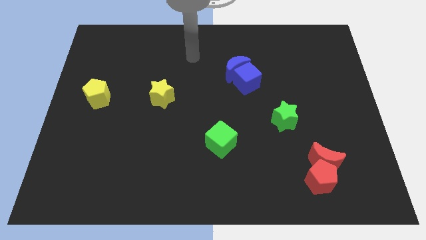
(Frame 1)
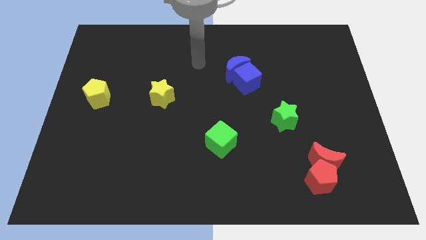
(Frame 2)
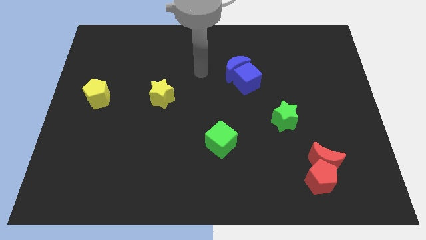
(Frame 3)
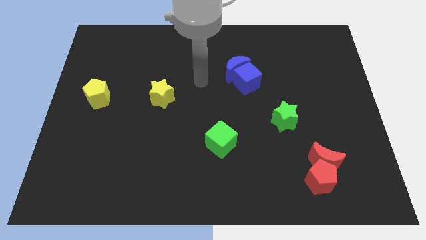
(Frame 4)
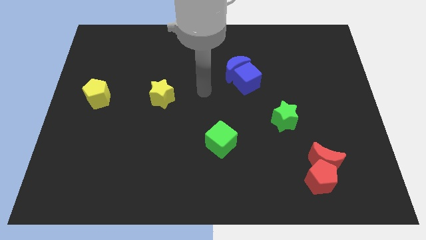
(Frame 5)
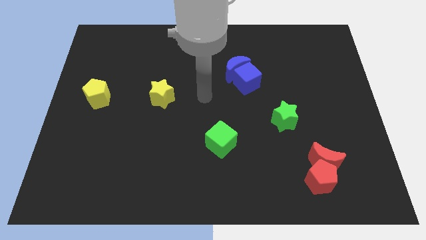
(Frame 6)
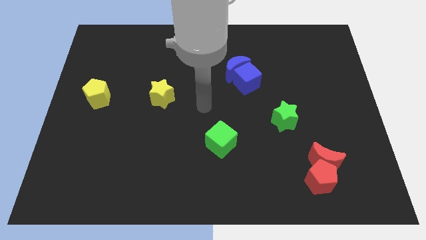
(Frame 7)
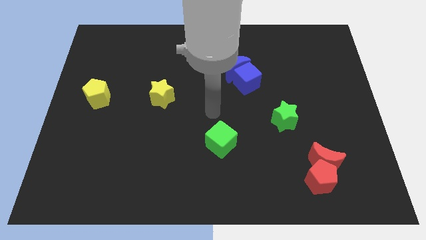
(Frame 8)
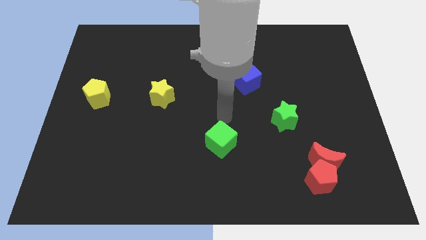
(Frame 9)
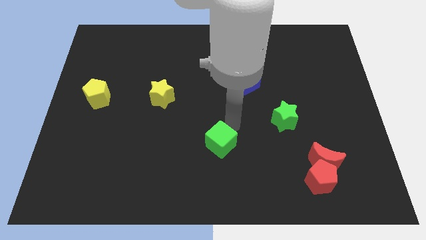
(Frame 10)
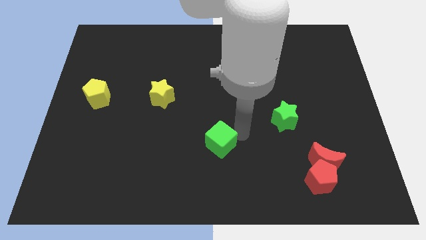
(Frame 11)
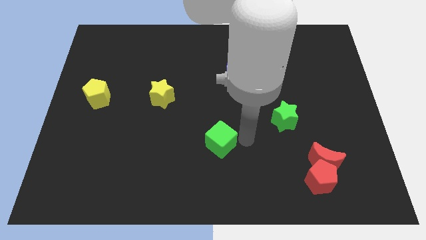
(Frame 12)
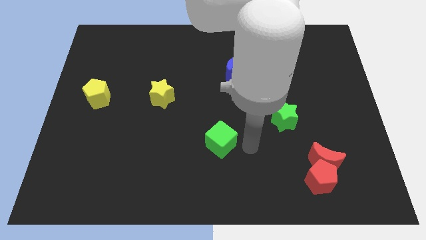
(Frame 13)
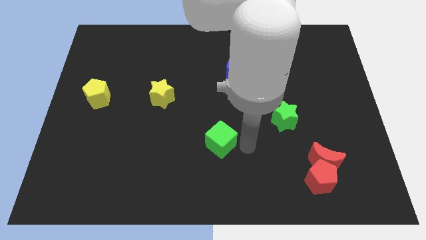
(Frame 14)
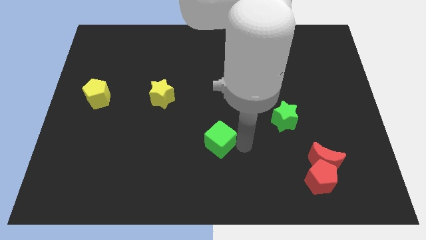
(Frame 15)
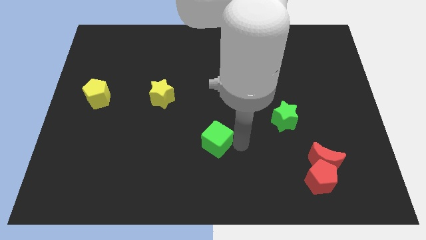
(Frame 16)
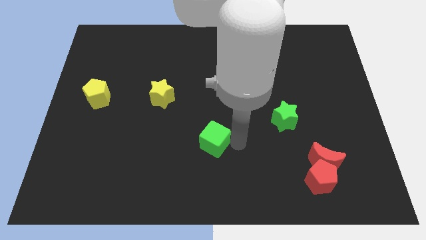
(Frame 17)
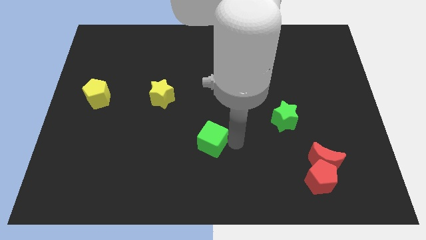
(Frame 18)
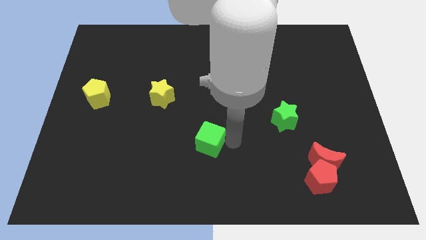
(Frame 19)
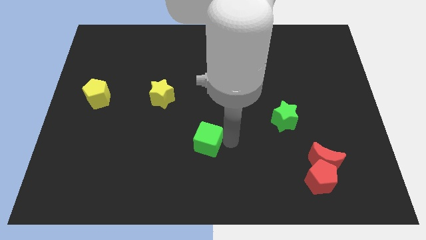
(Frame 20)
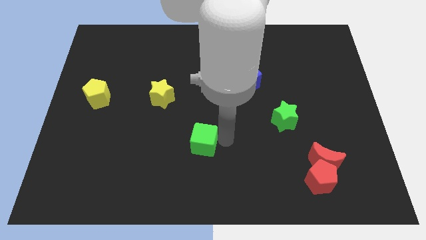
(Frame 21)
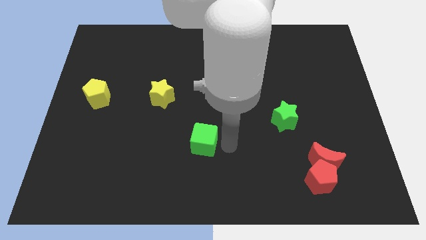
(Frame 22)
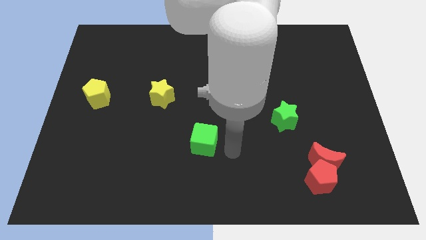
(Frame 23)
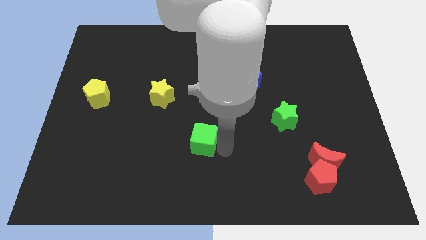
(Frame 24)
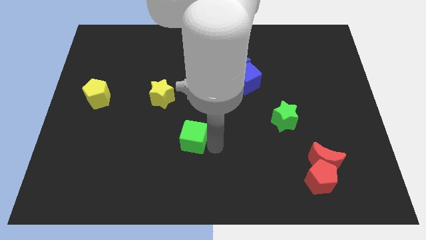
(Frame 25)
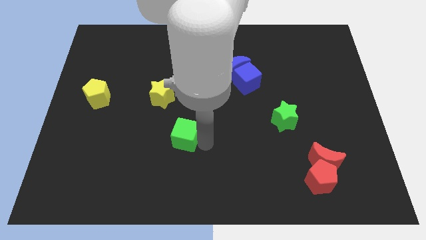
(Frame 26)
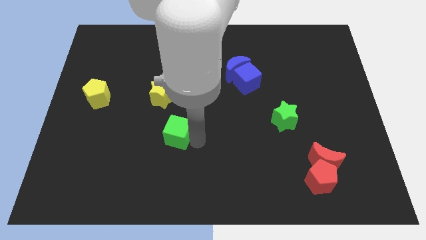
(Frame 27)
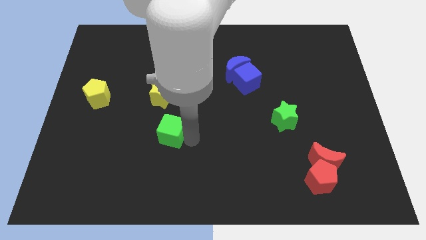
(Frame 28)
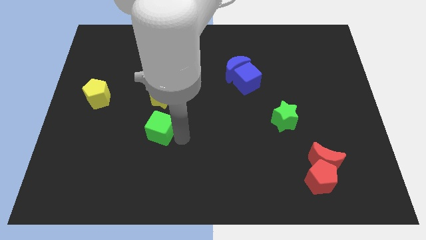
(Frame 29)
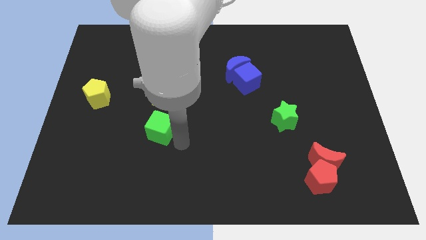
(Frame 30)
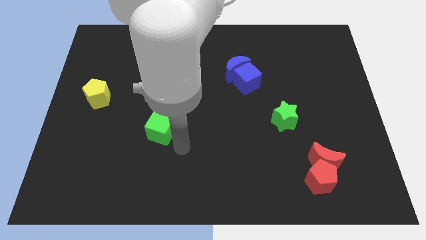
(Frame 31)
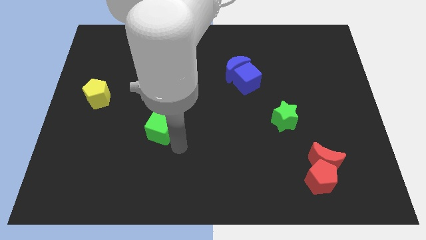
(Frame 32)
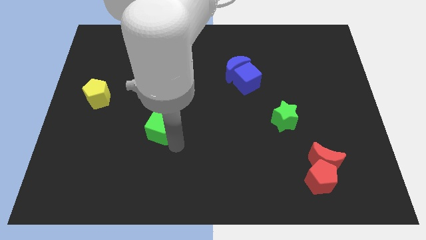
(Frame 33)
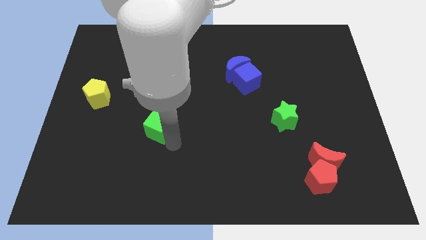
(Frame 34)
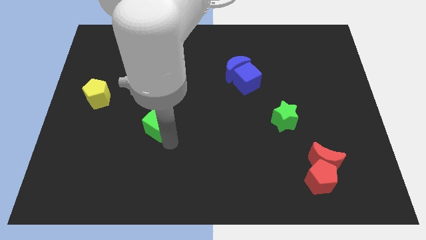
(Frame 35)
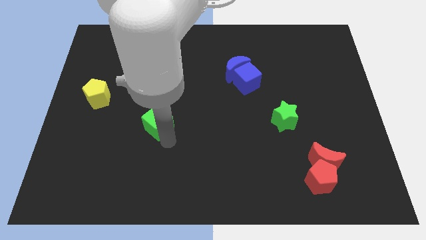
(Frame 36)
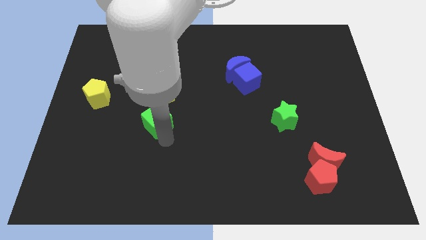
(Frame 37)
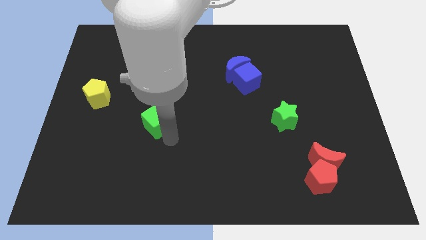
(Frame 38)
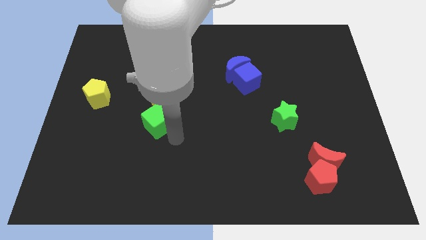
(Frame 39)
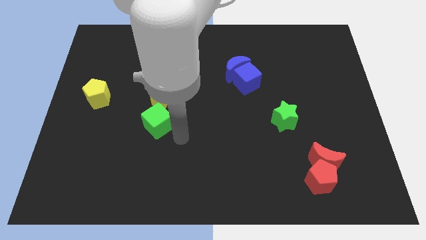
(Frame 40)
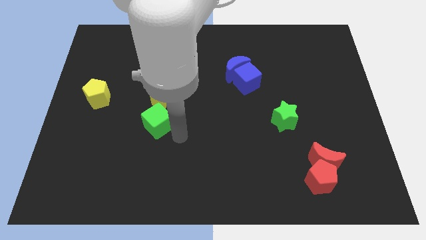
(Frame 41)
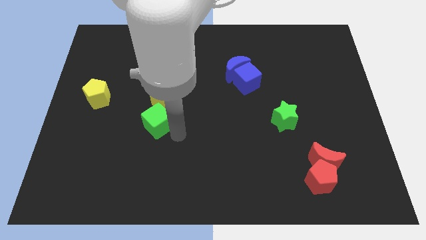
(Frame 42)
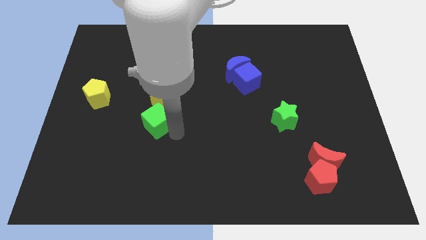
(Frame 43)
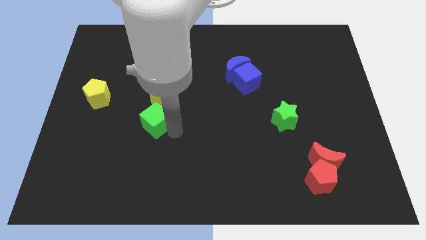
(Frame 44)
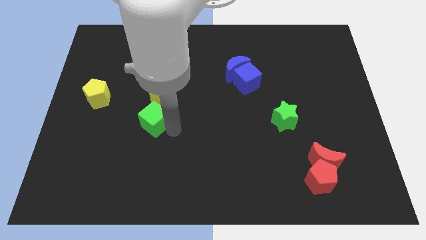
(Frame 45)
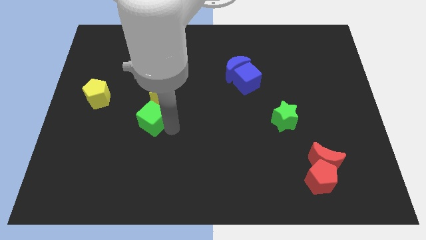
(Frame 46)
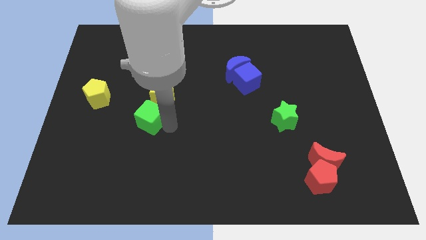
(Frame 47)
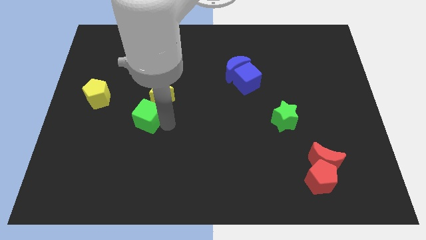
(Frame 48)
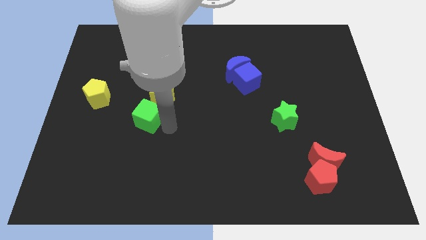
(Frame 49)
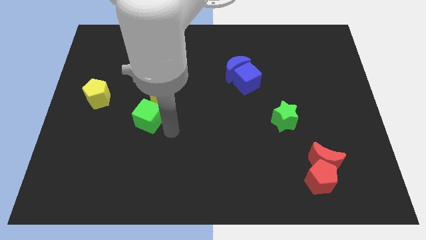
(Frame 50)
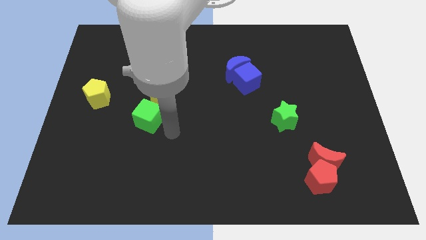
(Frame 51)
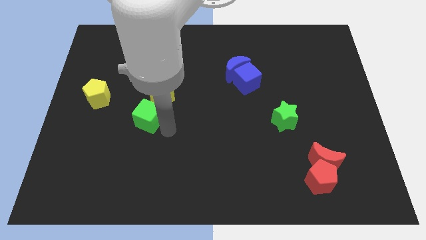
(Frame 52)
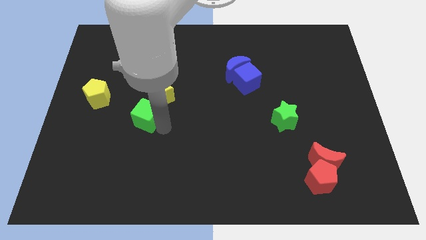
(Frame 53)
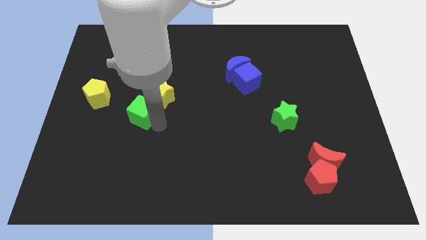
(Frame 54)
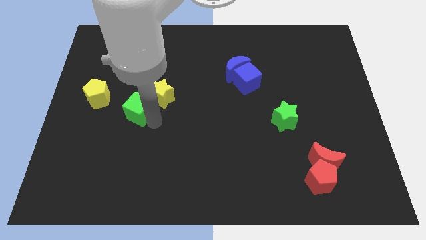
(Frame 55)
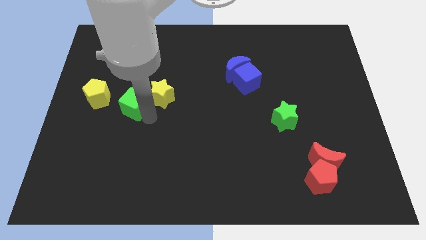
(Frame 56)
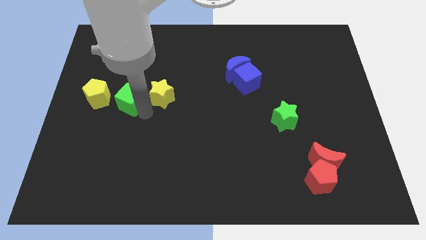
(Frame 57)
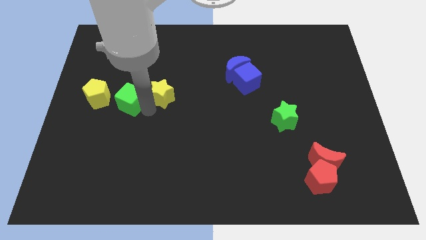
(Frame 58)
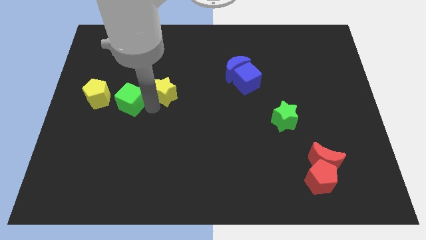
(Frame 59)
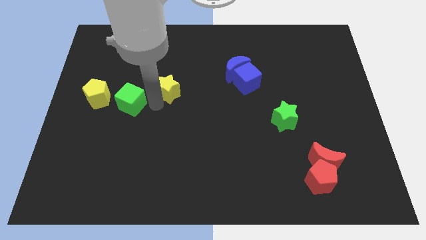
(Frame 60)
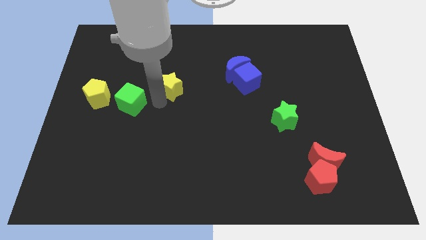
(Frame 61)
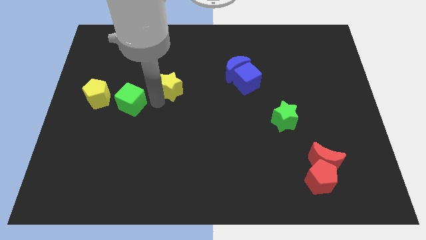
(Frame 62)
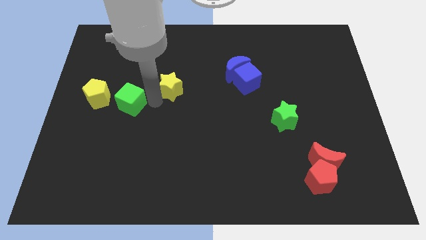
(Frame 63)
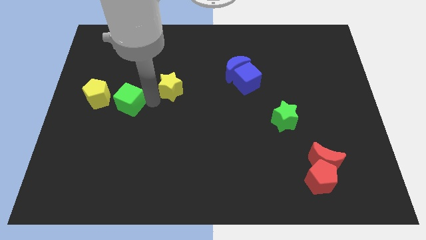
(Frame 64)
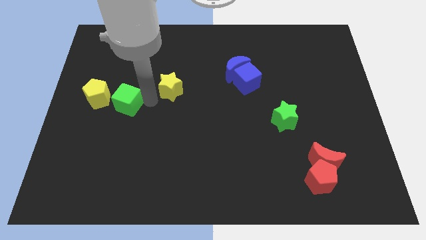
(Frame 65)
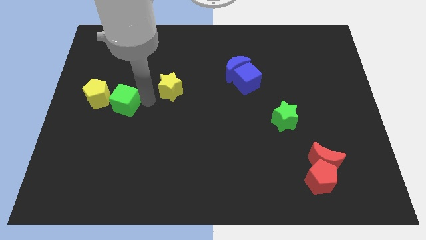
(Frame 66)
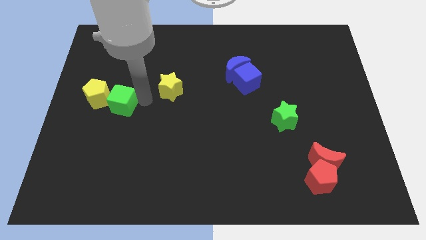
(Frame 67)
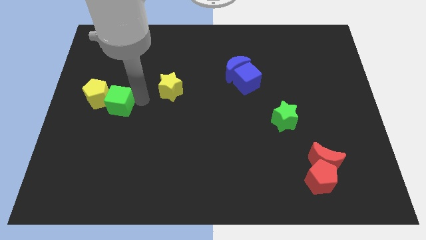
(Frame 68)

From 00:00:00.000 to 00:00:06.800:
move the green cube towards the yellow pentagon

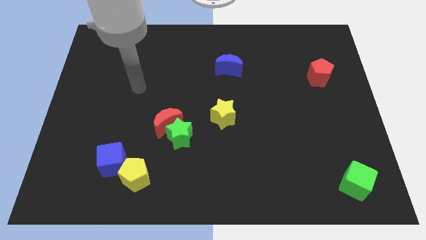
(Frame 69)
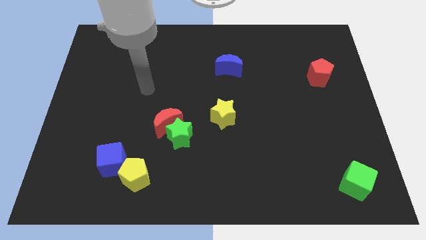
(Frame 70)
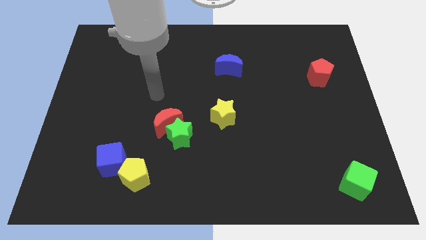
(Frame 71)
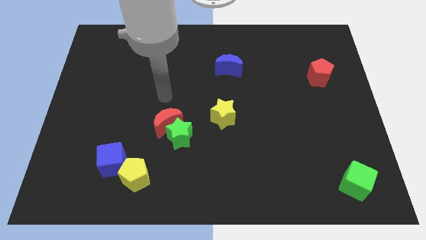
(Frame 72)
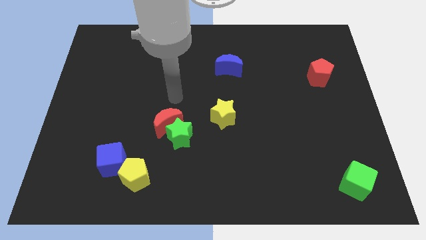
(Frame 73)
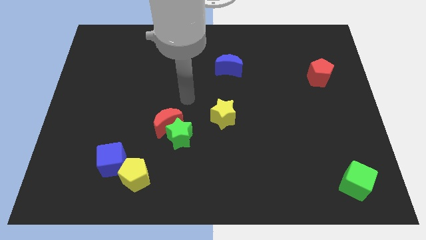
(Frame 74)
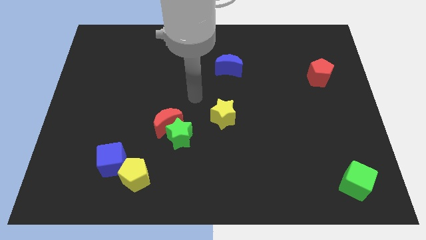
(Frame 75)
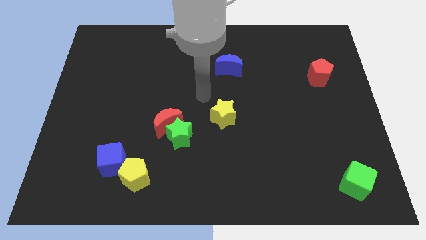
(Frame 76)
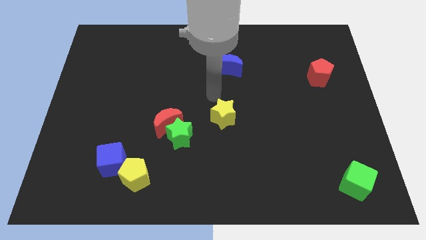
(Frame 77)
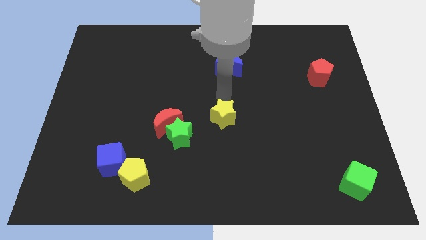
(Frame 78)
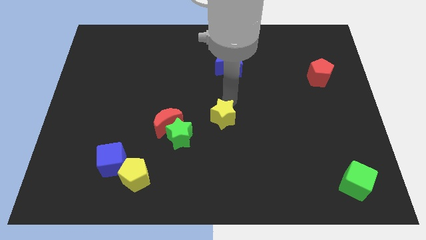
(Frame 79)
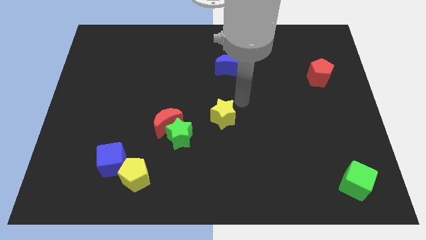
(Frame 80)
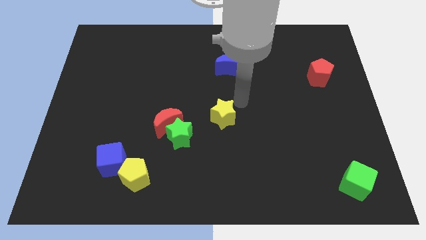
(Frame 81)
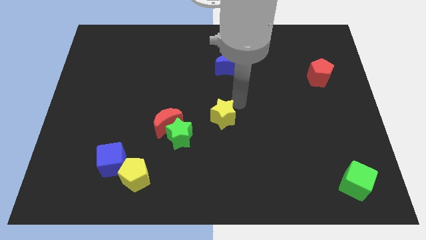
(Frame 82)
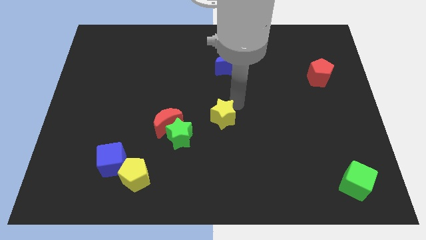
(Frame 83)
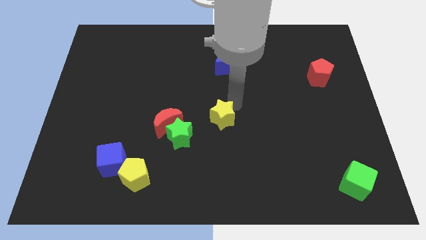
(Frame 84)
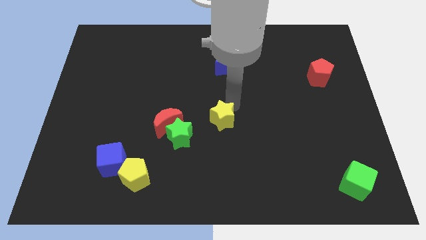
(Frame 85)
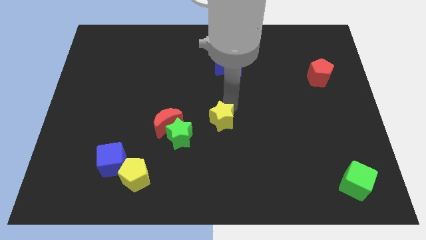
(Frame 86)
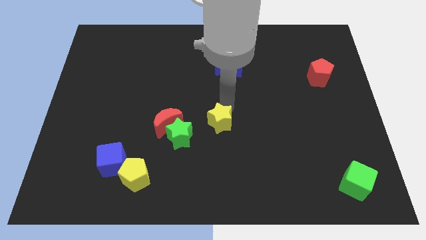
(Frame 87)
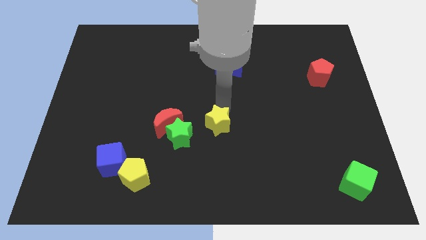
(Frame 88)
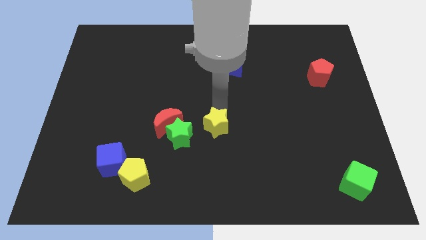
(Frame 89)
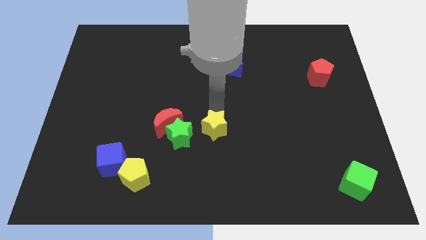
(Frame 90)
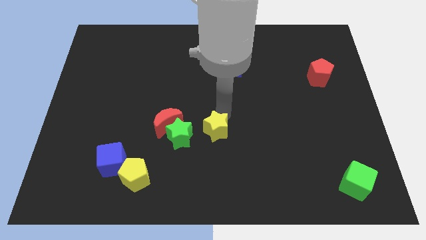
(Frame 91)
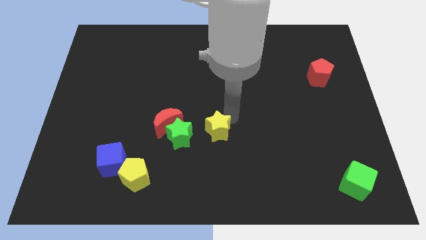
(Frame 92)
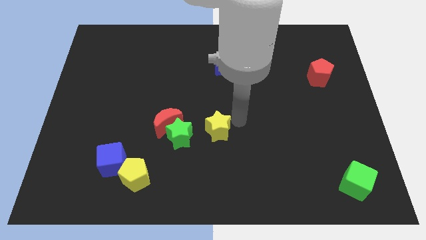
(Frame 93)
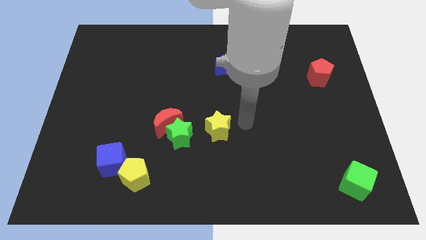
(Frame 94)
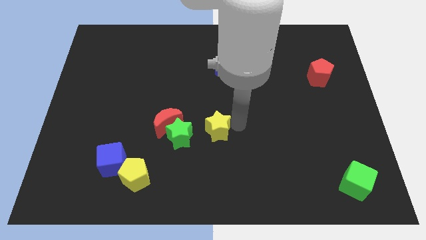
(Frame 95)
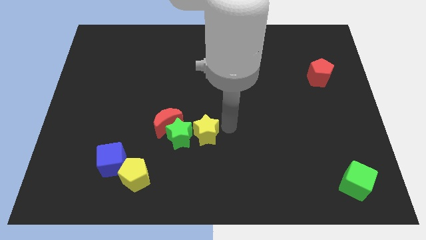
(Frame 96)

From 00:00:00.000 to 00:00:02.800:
slide the yellow star next to the green star
